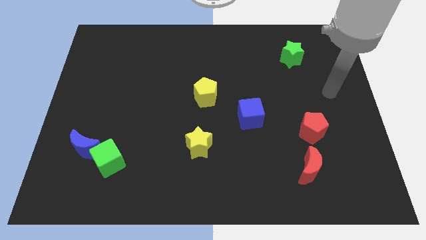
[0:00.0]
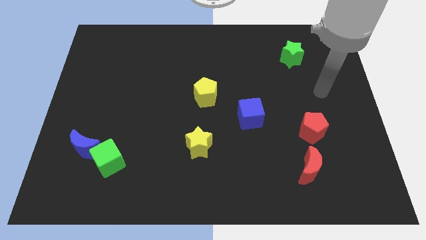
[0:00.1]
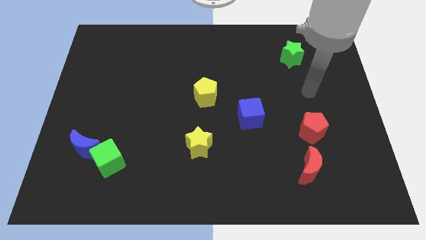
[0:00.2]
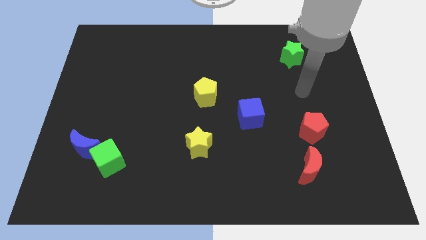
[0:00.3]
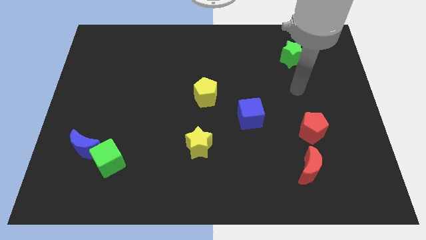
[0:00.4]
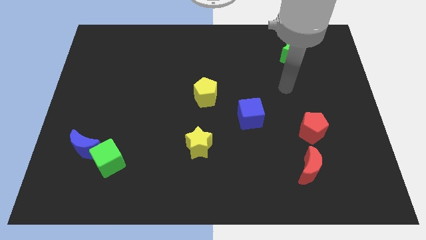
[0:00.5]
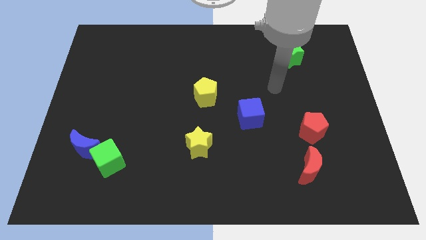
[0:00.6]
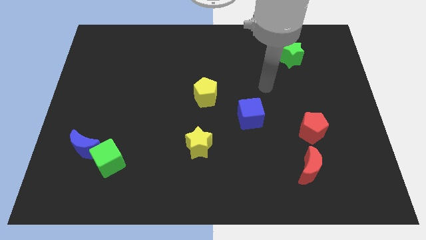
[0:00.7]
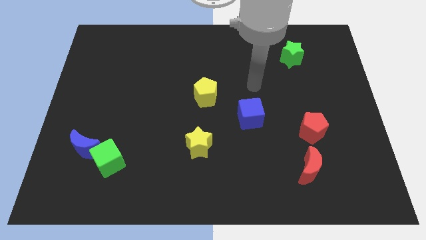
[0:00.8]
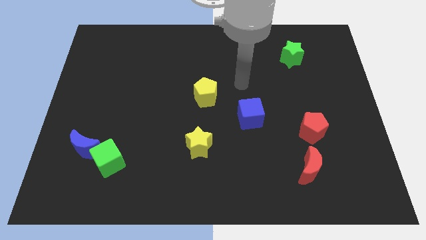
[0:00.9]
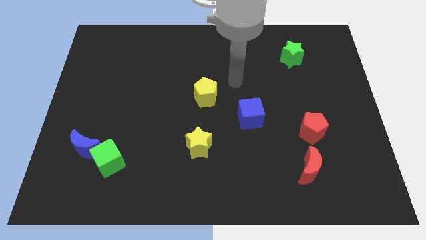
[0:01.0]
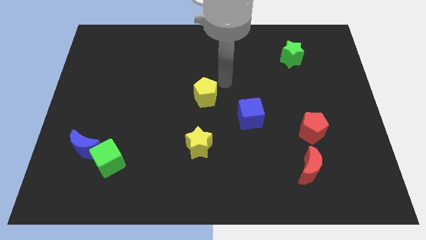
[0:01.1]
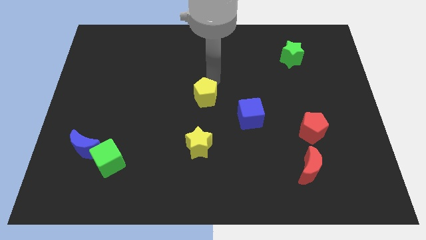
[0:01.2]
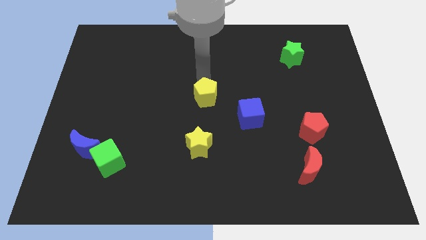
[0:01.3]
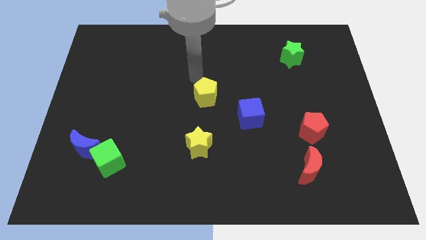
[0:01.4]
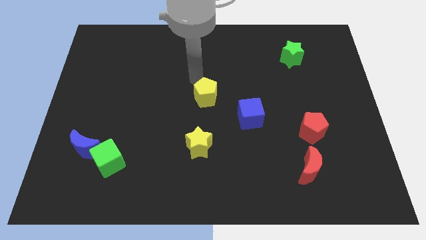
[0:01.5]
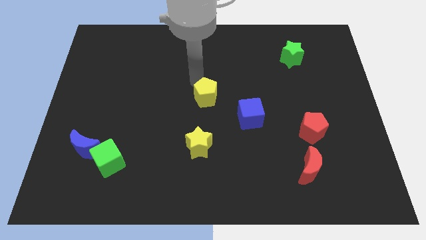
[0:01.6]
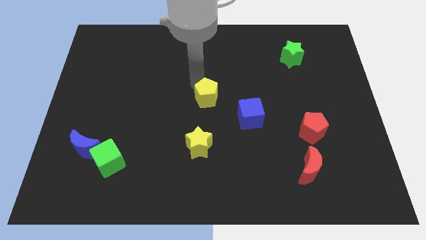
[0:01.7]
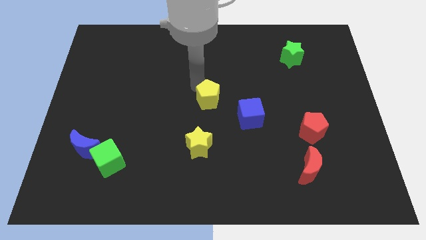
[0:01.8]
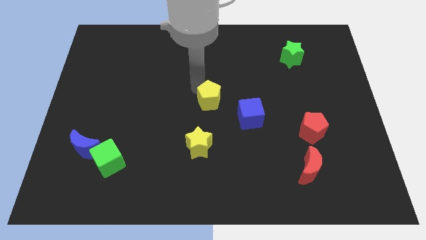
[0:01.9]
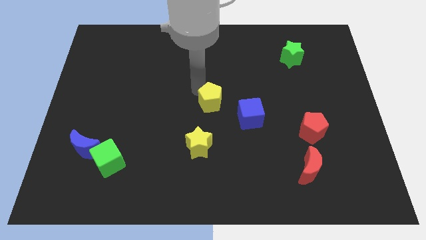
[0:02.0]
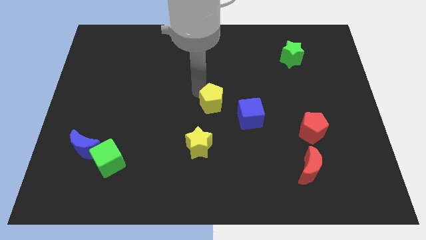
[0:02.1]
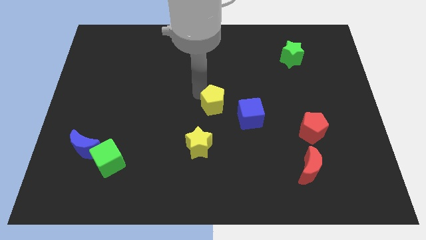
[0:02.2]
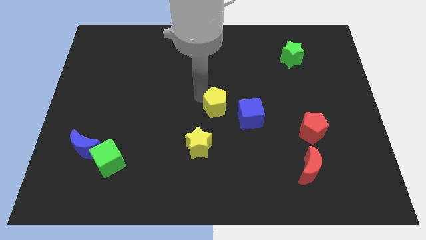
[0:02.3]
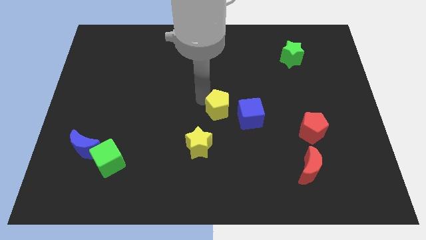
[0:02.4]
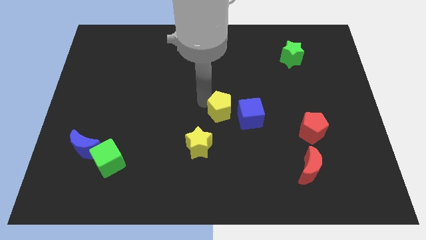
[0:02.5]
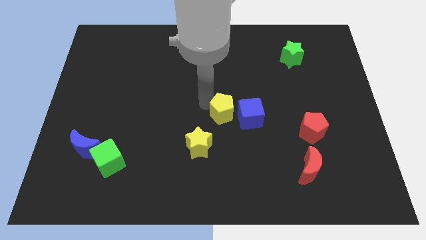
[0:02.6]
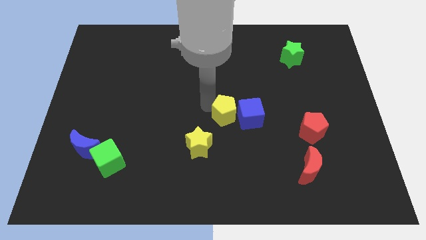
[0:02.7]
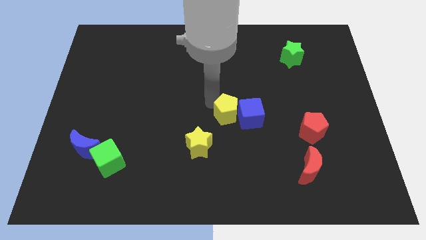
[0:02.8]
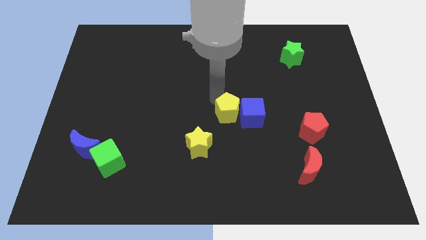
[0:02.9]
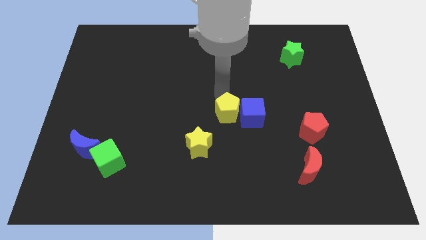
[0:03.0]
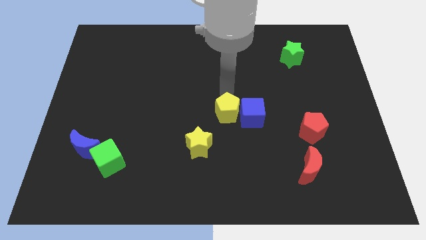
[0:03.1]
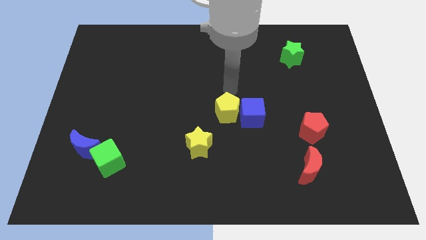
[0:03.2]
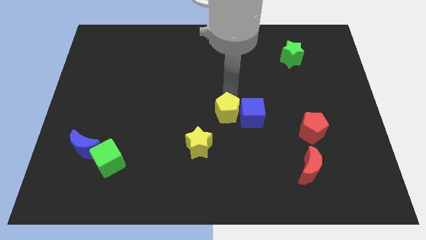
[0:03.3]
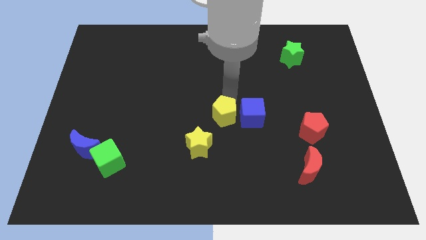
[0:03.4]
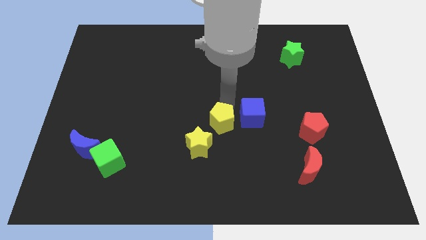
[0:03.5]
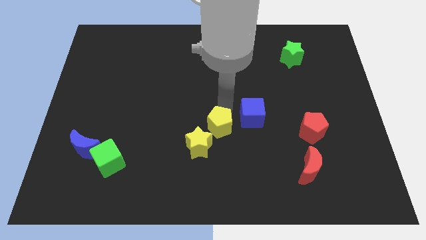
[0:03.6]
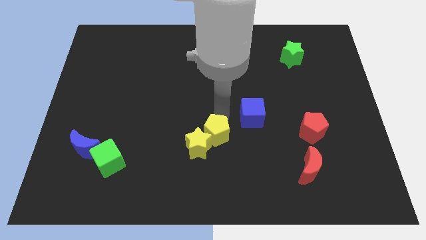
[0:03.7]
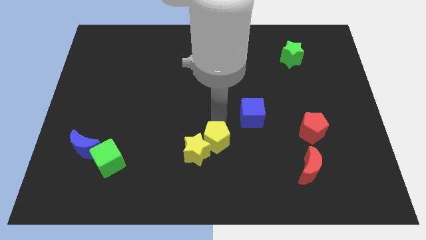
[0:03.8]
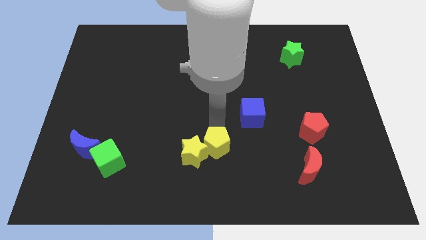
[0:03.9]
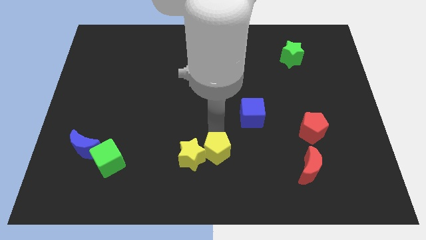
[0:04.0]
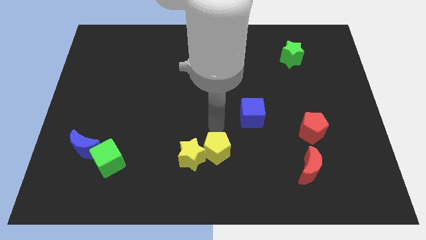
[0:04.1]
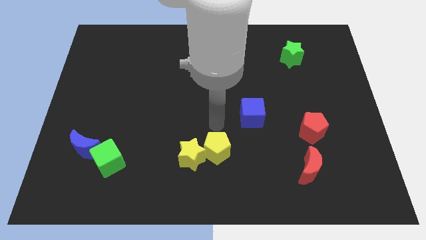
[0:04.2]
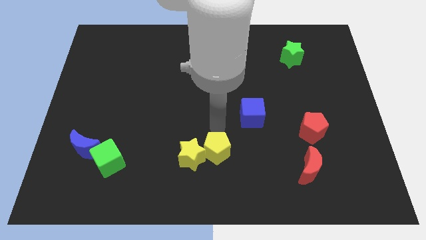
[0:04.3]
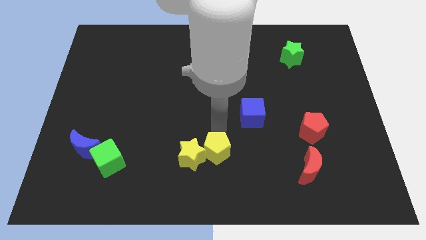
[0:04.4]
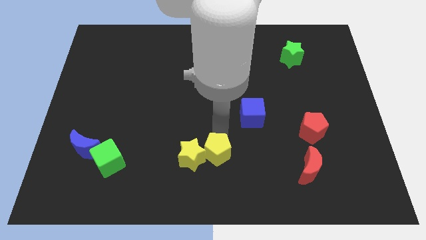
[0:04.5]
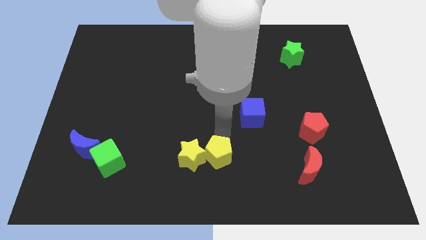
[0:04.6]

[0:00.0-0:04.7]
slide the yellow pentagon to the bottom side

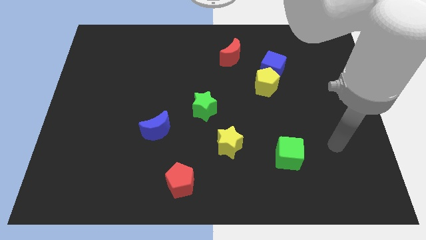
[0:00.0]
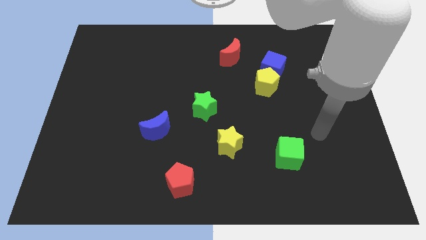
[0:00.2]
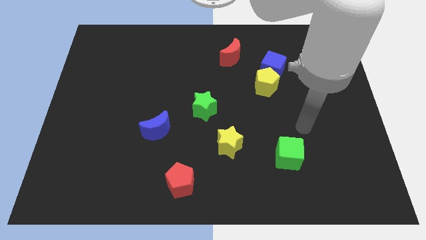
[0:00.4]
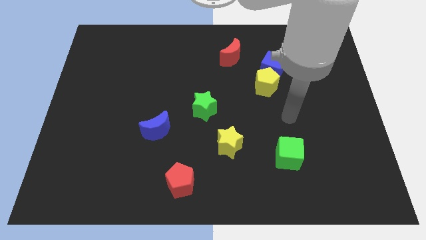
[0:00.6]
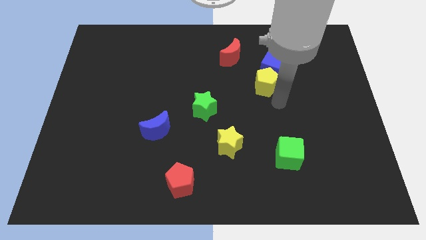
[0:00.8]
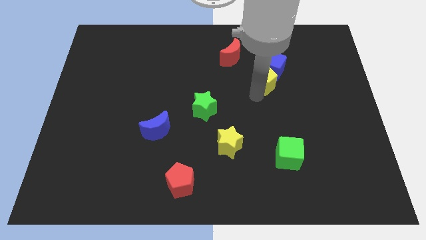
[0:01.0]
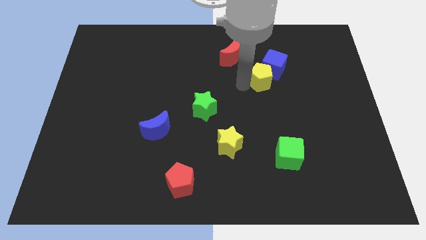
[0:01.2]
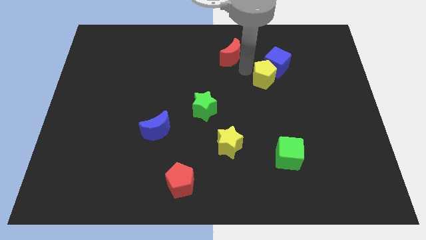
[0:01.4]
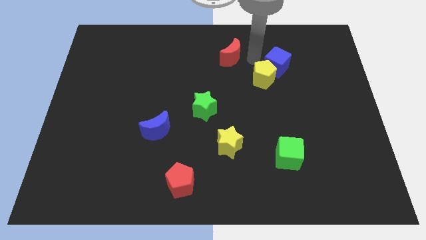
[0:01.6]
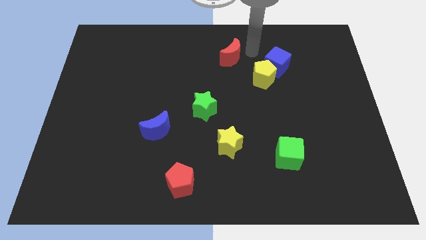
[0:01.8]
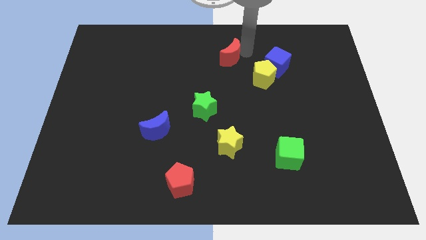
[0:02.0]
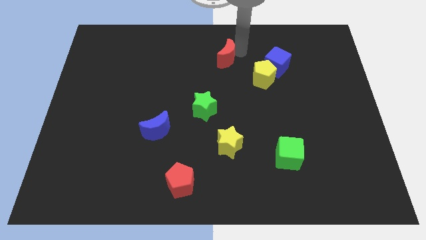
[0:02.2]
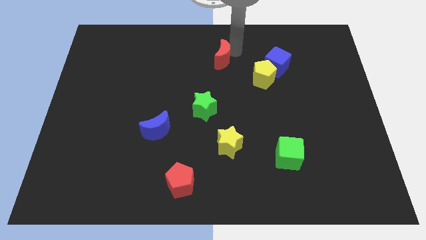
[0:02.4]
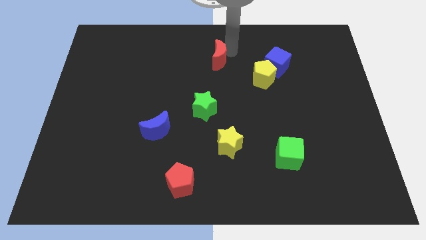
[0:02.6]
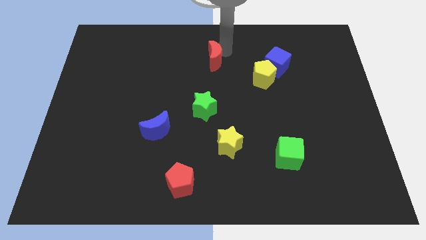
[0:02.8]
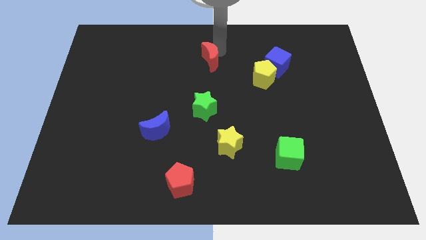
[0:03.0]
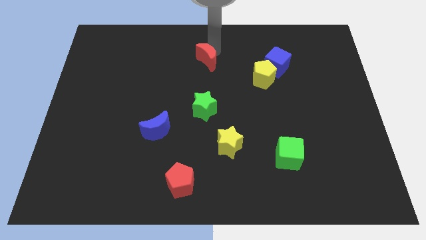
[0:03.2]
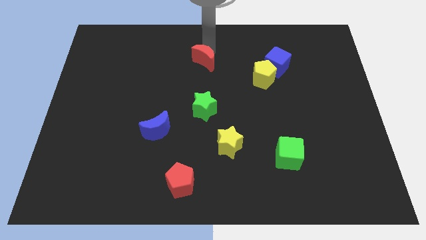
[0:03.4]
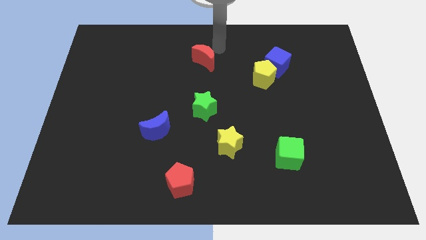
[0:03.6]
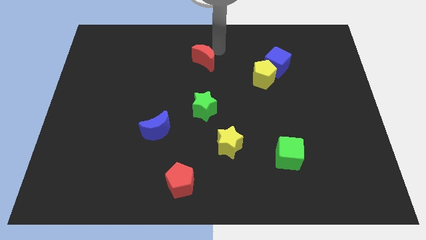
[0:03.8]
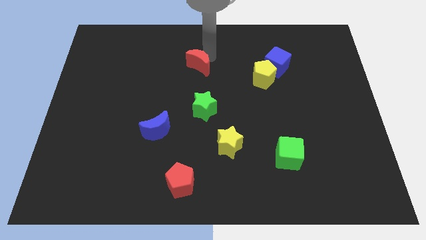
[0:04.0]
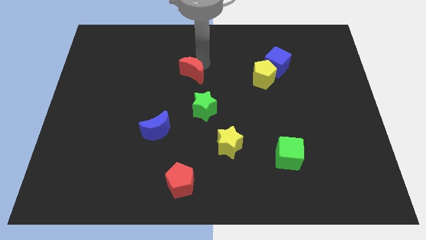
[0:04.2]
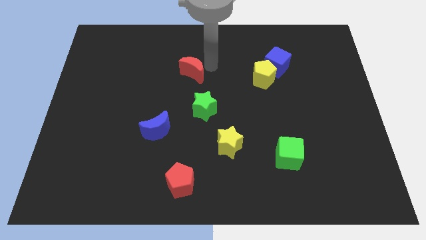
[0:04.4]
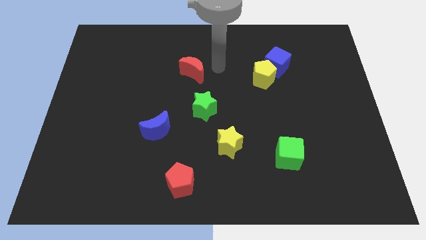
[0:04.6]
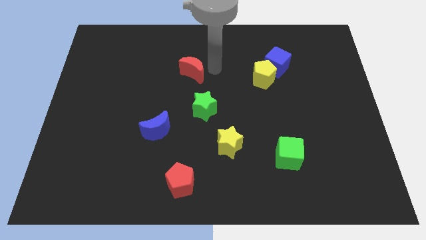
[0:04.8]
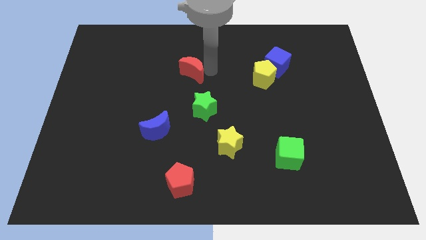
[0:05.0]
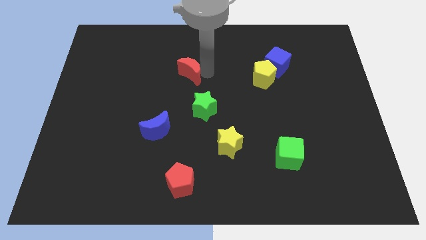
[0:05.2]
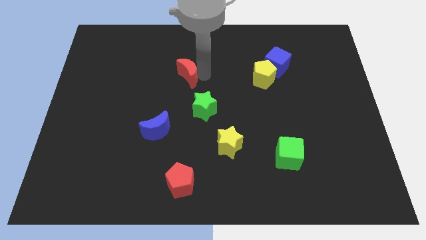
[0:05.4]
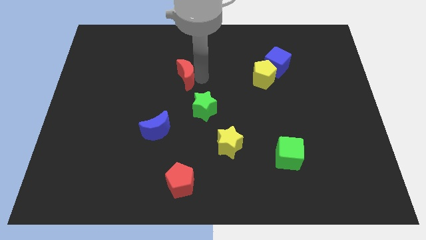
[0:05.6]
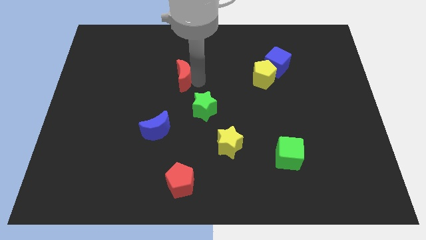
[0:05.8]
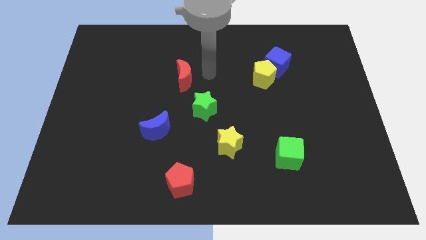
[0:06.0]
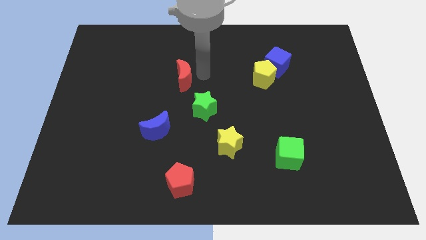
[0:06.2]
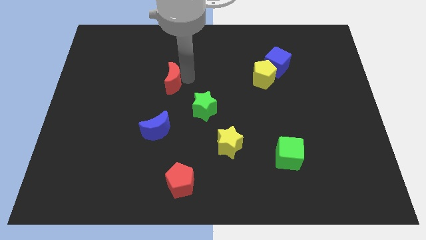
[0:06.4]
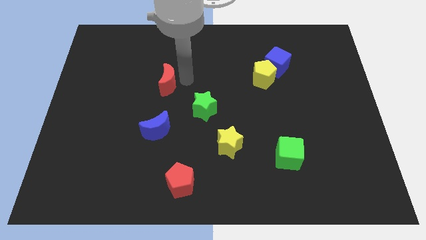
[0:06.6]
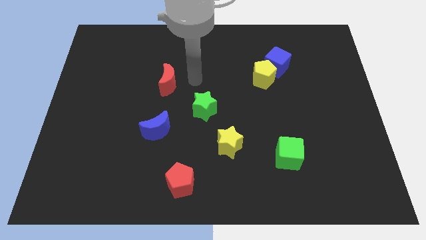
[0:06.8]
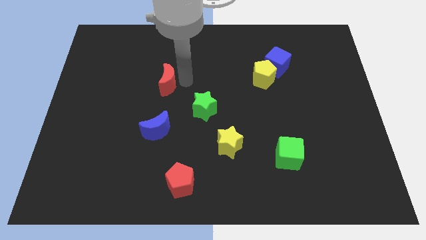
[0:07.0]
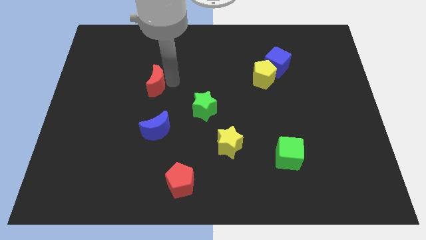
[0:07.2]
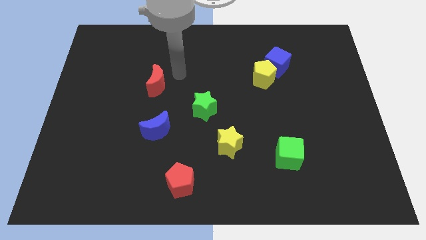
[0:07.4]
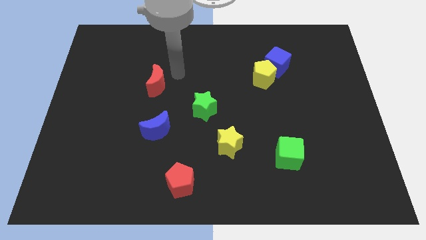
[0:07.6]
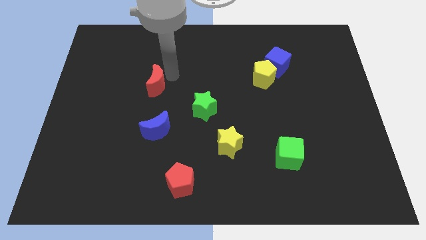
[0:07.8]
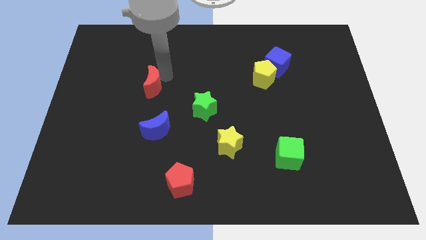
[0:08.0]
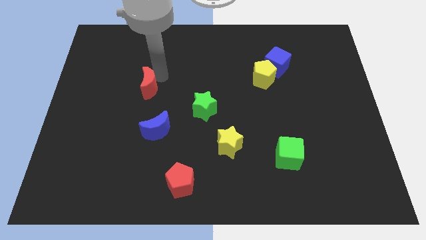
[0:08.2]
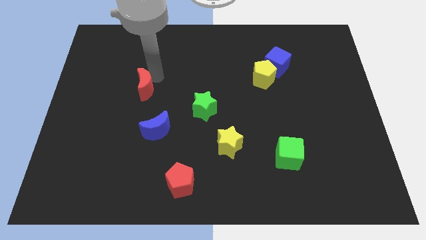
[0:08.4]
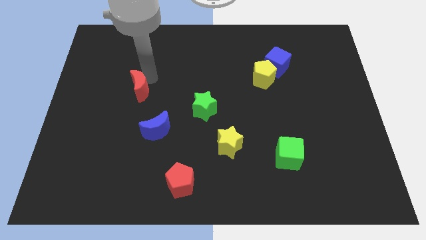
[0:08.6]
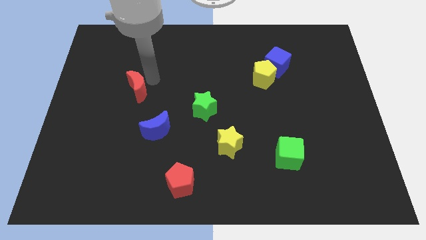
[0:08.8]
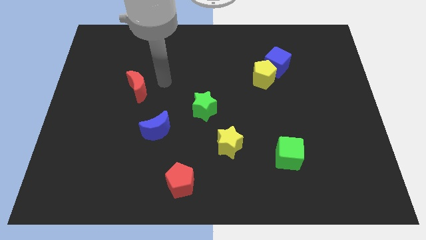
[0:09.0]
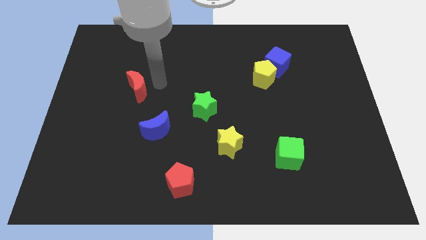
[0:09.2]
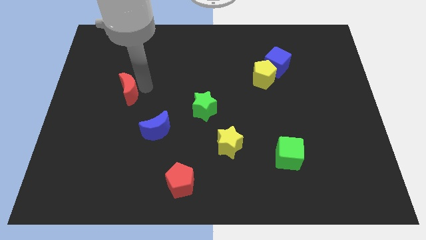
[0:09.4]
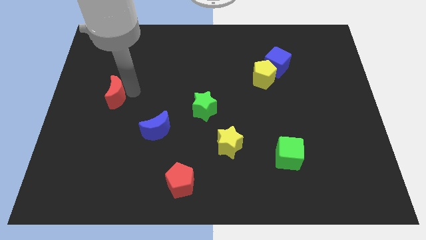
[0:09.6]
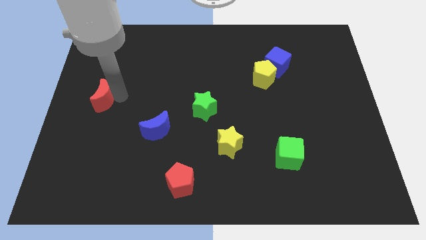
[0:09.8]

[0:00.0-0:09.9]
slide the red moon to the left side of the board
